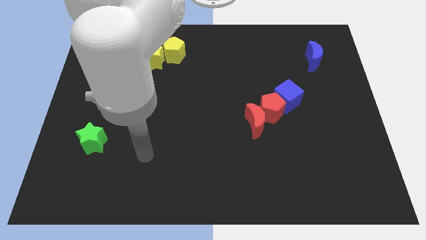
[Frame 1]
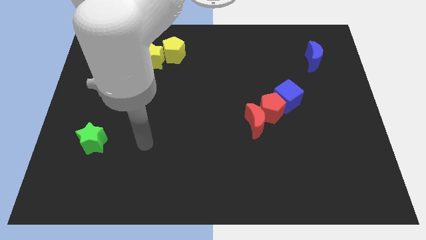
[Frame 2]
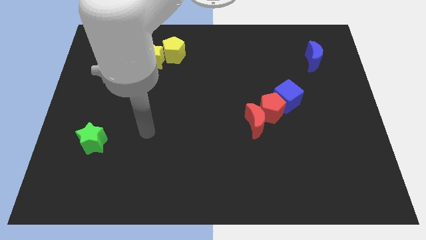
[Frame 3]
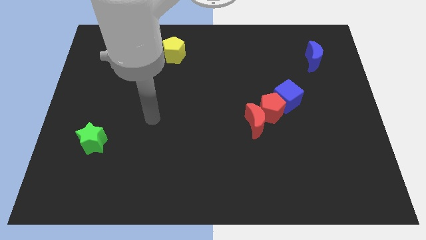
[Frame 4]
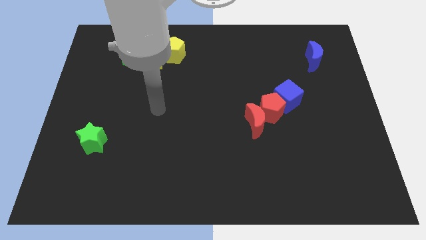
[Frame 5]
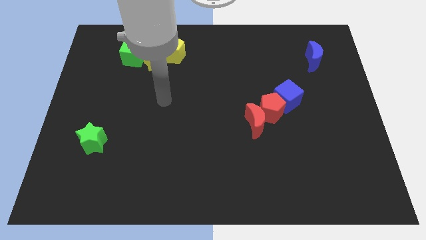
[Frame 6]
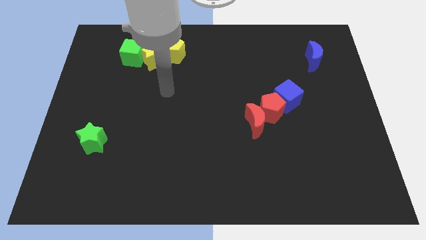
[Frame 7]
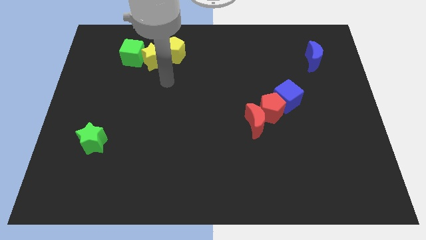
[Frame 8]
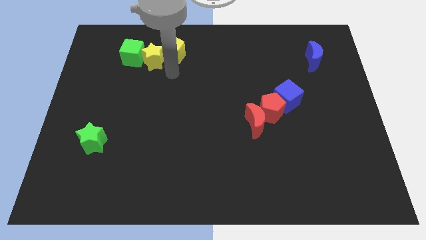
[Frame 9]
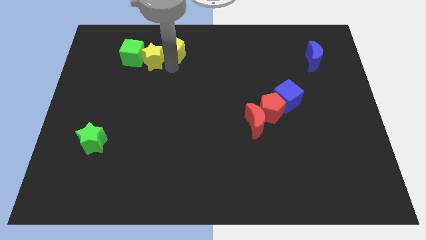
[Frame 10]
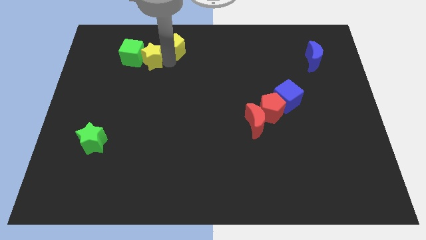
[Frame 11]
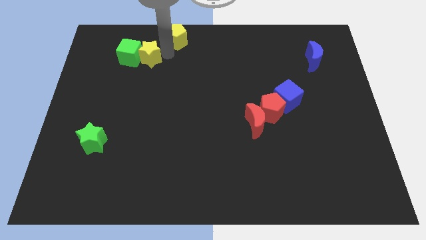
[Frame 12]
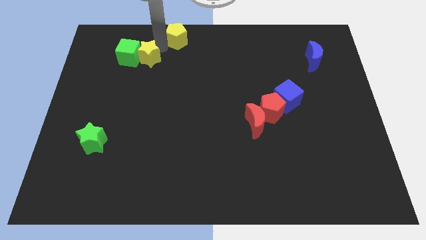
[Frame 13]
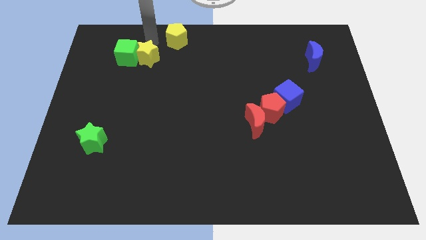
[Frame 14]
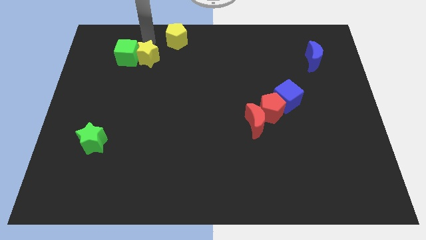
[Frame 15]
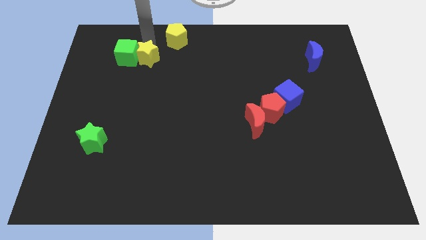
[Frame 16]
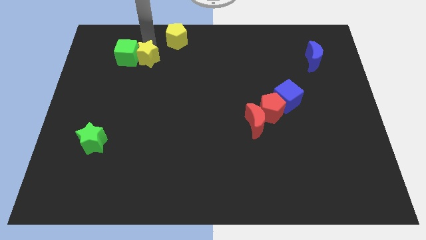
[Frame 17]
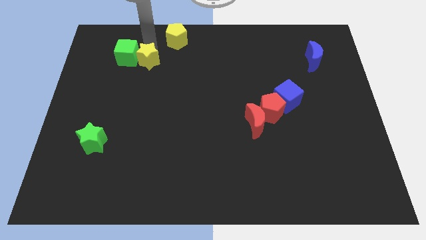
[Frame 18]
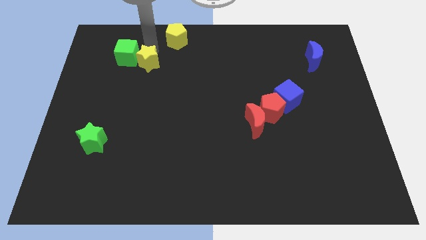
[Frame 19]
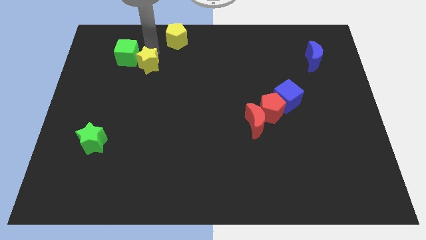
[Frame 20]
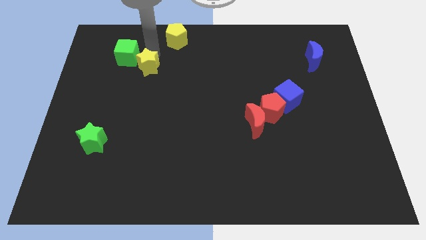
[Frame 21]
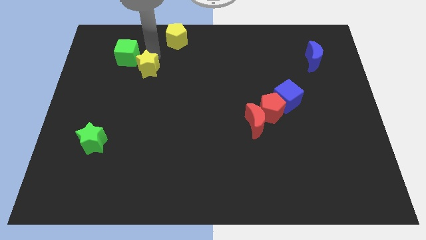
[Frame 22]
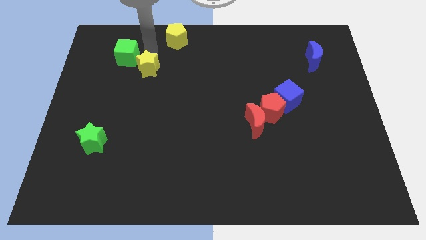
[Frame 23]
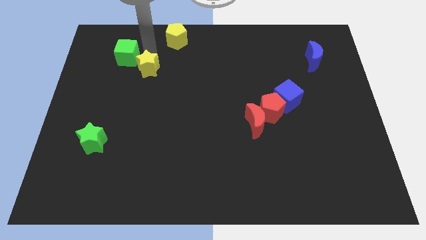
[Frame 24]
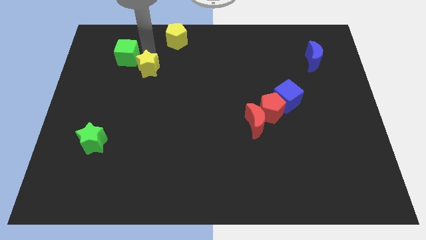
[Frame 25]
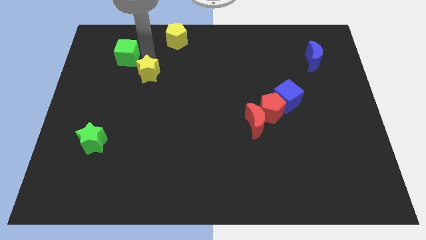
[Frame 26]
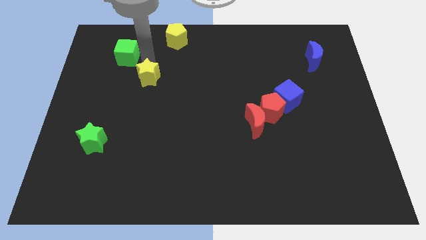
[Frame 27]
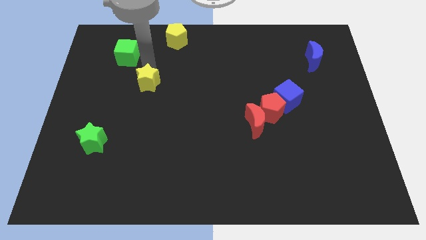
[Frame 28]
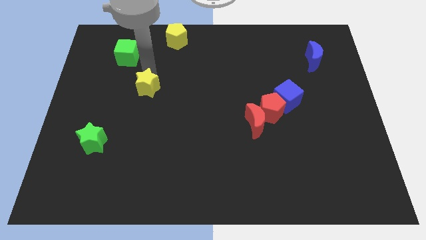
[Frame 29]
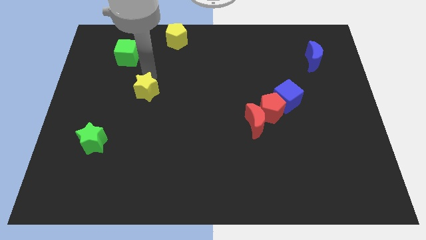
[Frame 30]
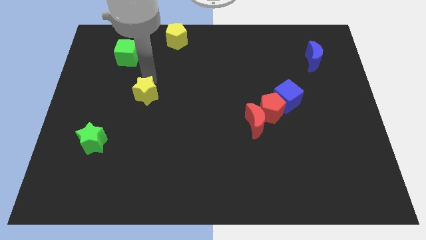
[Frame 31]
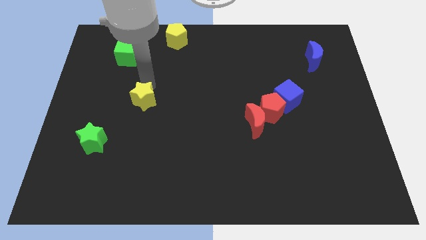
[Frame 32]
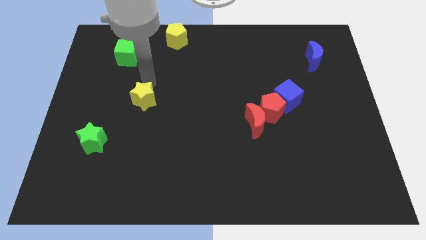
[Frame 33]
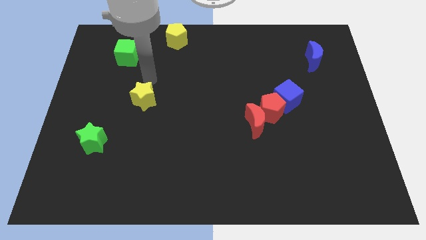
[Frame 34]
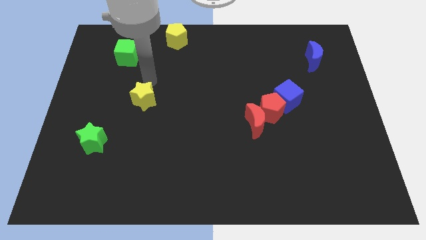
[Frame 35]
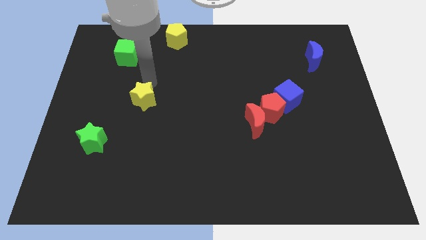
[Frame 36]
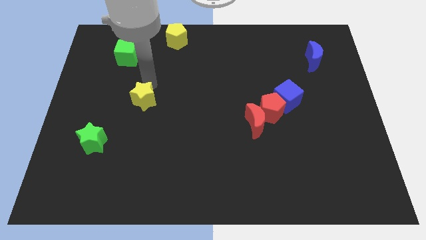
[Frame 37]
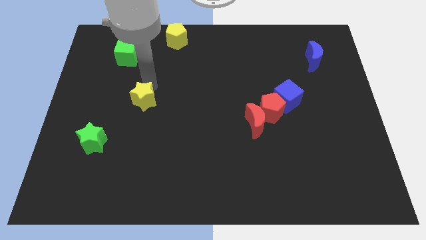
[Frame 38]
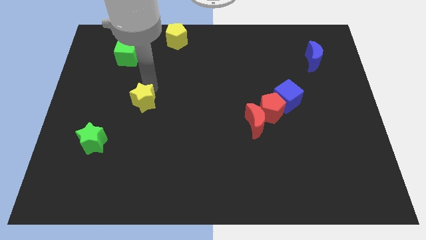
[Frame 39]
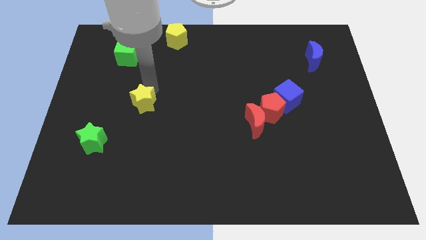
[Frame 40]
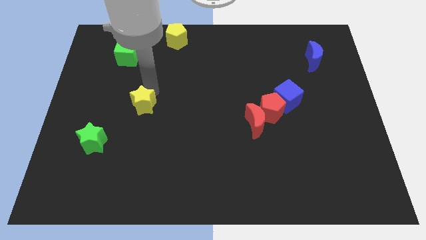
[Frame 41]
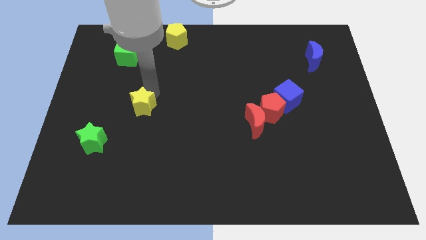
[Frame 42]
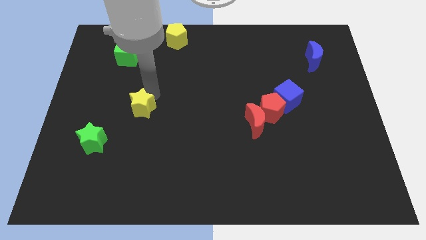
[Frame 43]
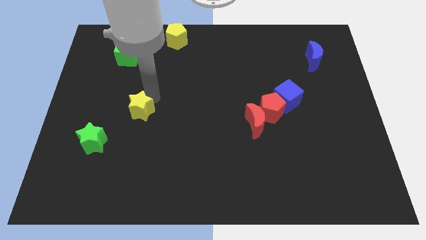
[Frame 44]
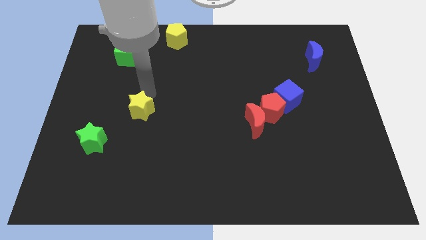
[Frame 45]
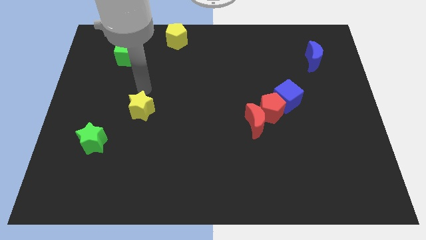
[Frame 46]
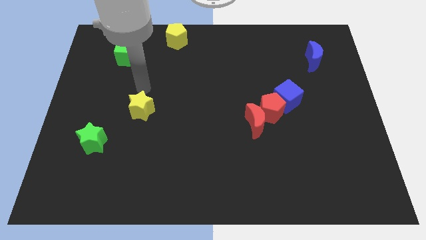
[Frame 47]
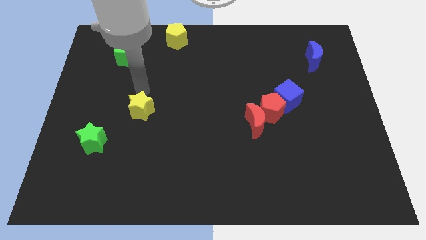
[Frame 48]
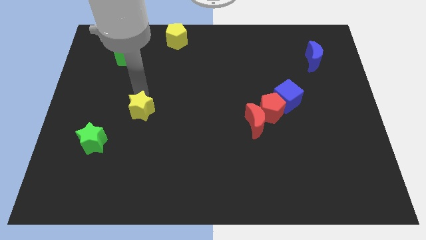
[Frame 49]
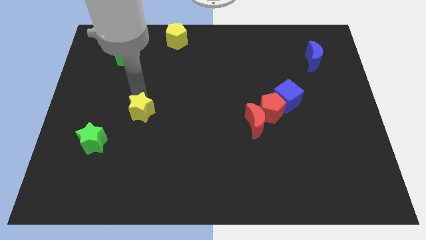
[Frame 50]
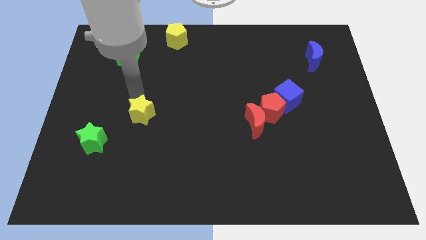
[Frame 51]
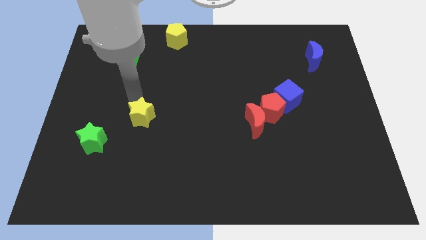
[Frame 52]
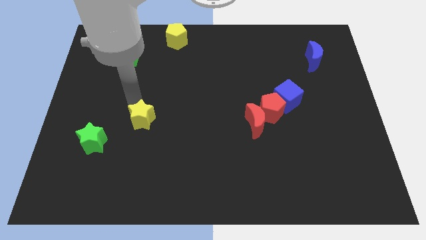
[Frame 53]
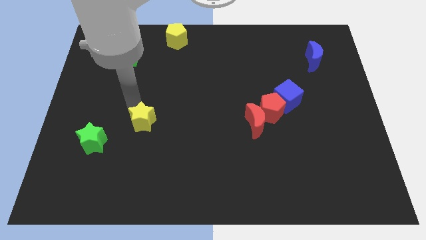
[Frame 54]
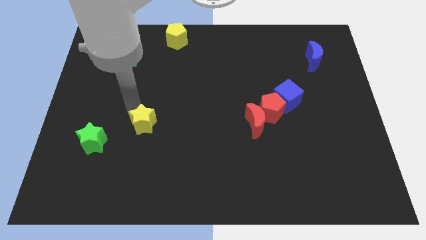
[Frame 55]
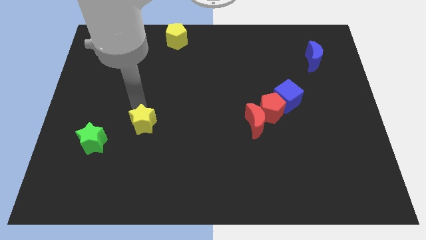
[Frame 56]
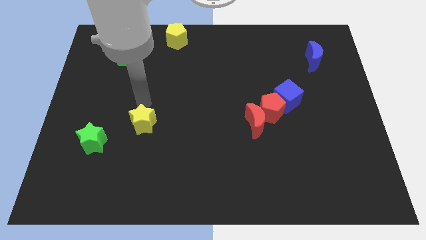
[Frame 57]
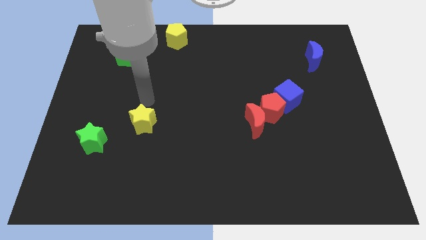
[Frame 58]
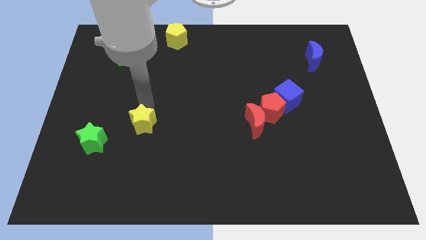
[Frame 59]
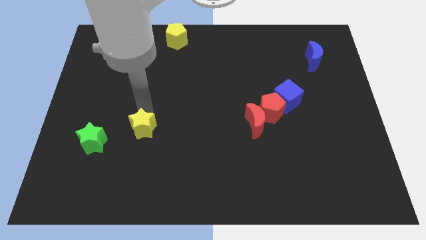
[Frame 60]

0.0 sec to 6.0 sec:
put the yellow star right of the green star
